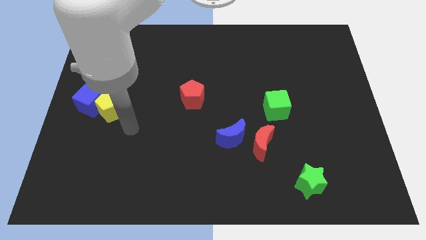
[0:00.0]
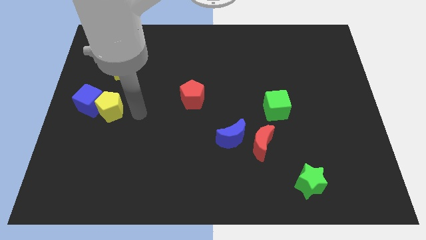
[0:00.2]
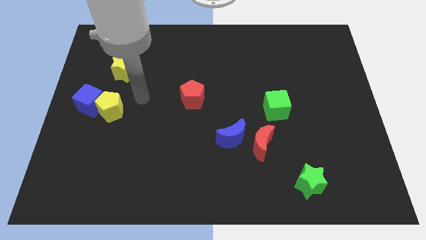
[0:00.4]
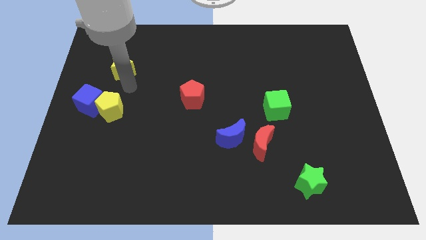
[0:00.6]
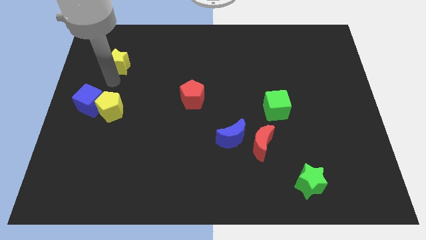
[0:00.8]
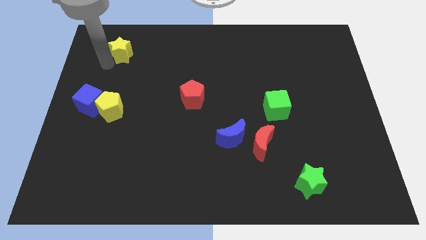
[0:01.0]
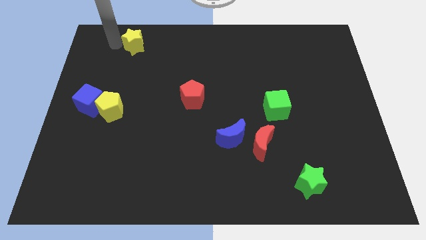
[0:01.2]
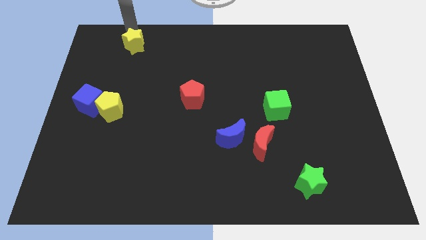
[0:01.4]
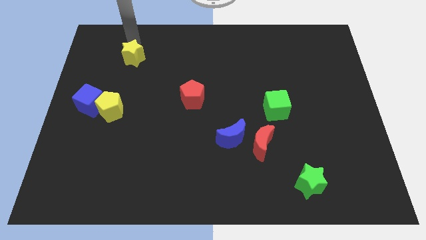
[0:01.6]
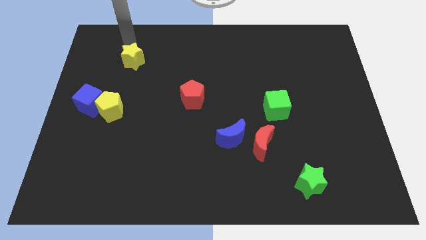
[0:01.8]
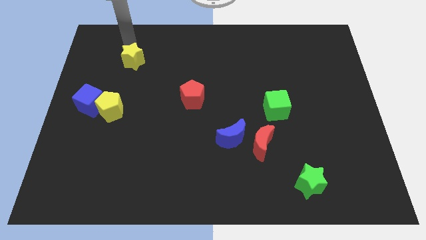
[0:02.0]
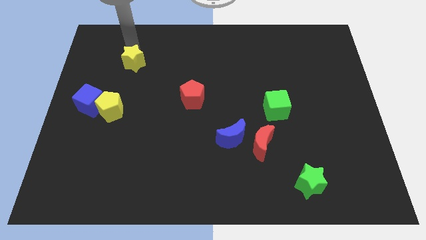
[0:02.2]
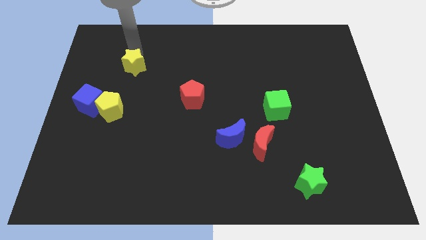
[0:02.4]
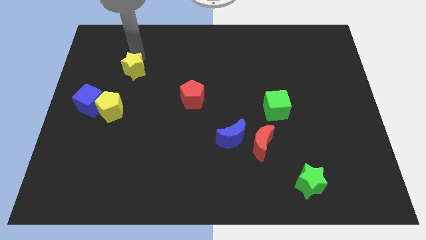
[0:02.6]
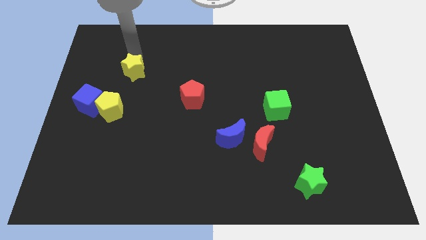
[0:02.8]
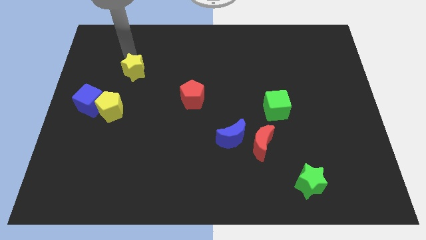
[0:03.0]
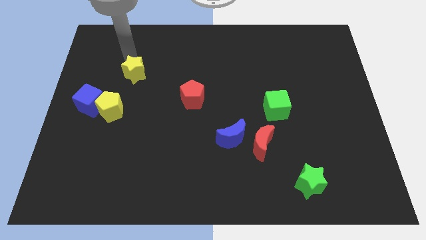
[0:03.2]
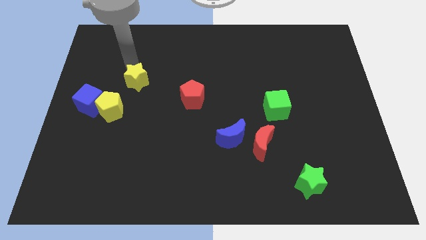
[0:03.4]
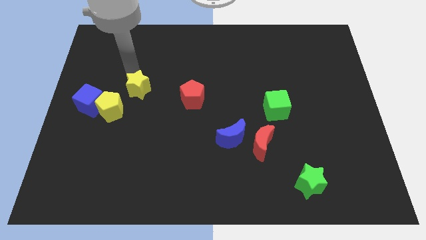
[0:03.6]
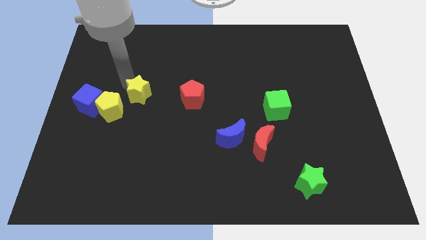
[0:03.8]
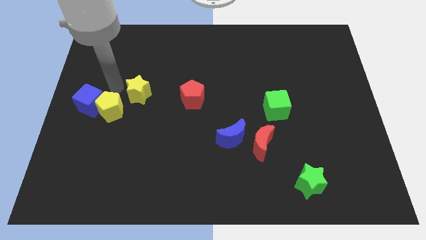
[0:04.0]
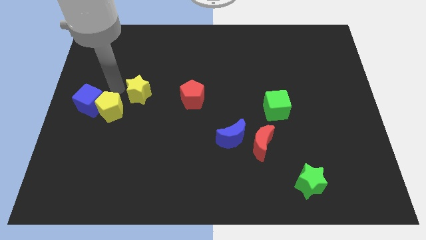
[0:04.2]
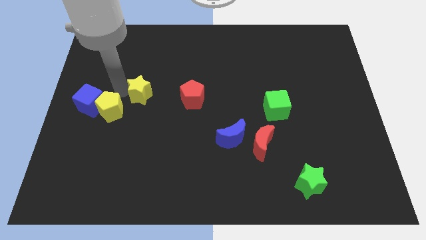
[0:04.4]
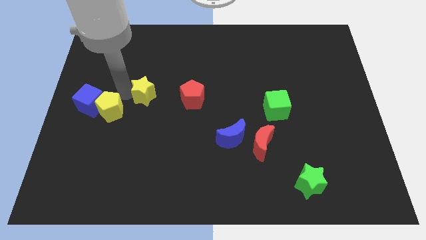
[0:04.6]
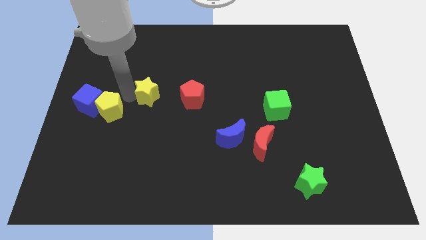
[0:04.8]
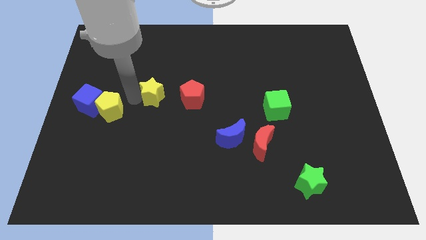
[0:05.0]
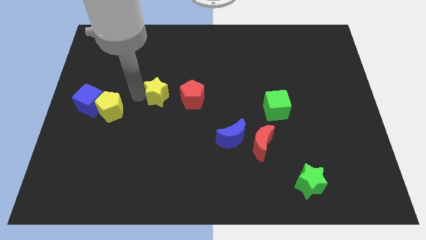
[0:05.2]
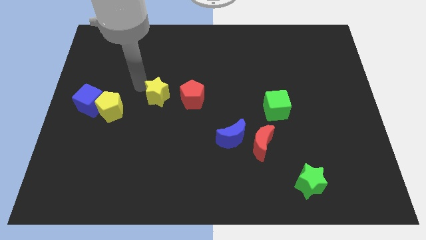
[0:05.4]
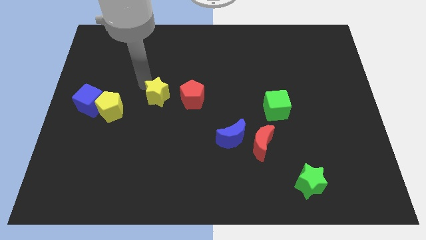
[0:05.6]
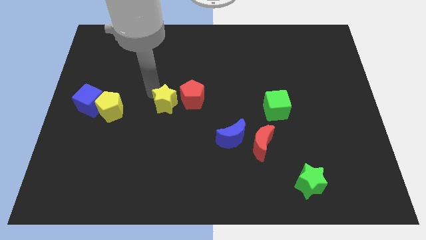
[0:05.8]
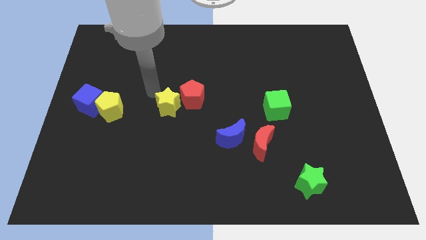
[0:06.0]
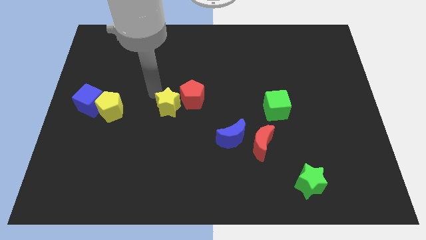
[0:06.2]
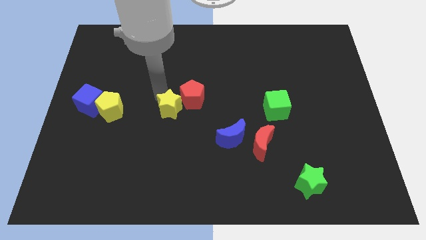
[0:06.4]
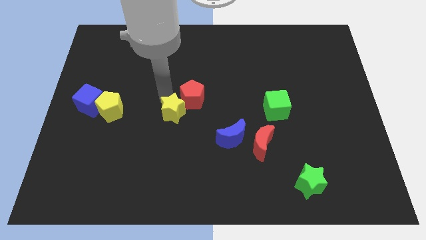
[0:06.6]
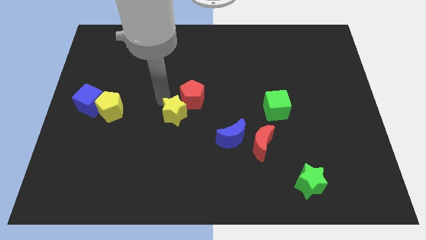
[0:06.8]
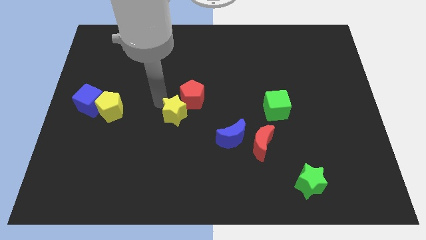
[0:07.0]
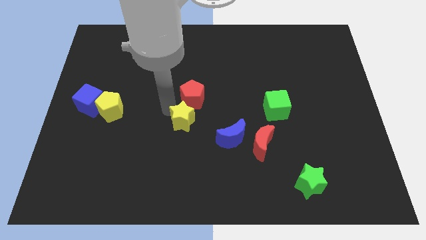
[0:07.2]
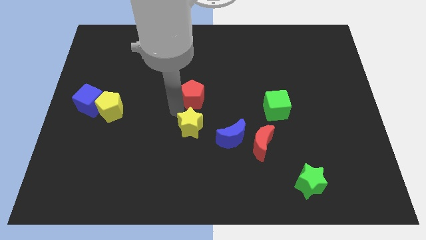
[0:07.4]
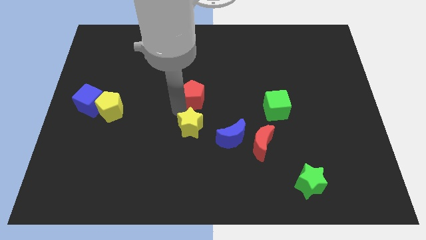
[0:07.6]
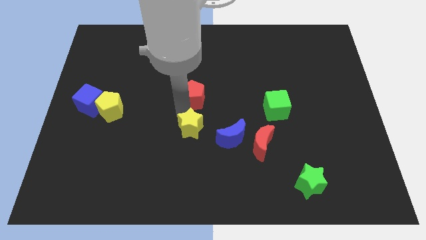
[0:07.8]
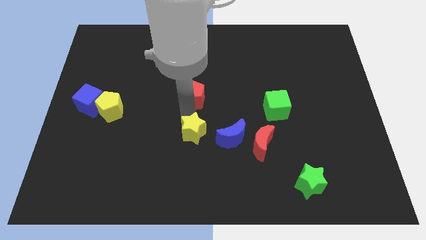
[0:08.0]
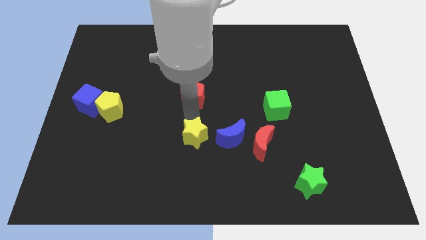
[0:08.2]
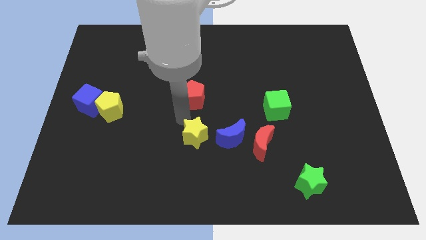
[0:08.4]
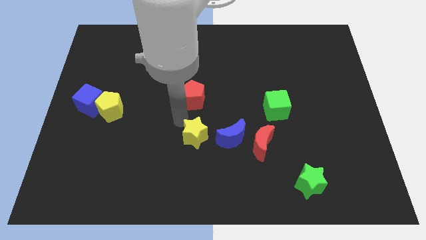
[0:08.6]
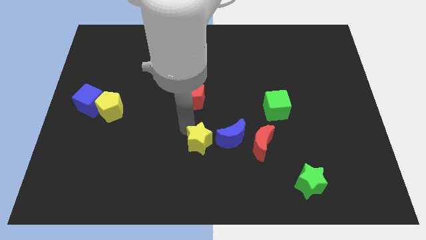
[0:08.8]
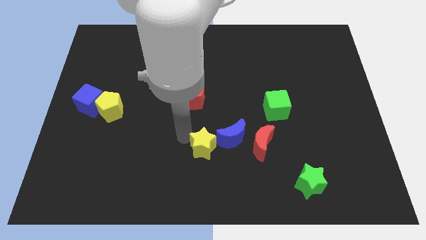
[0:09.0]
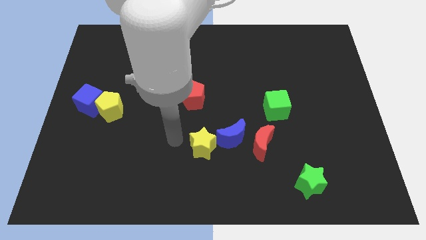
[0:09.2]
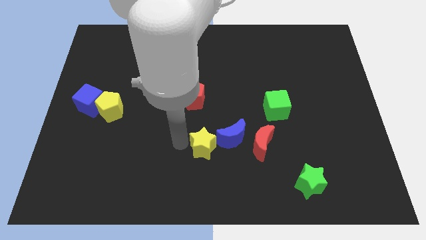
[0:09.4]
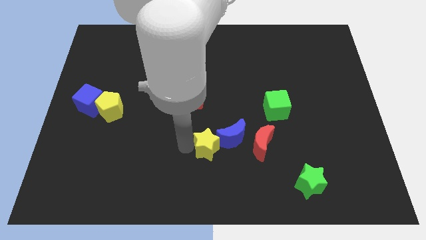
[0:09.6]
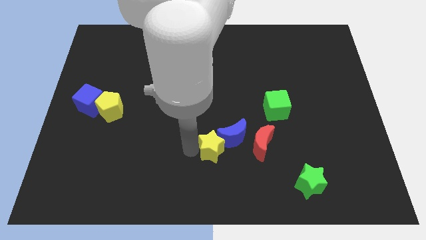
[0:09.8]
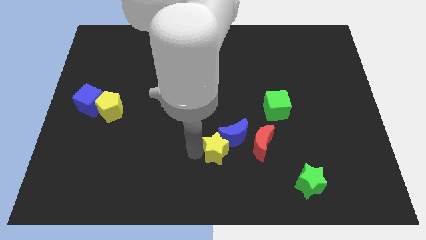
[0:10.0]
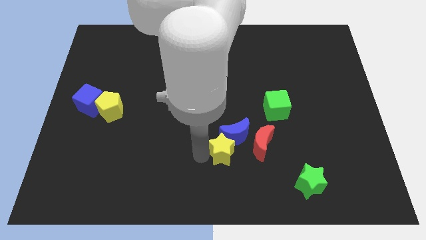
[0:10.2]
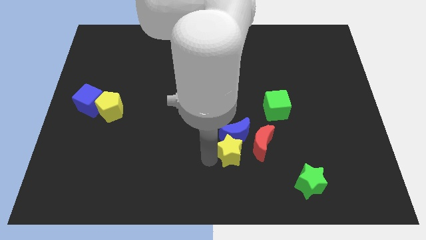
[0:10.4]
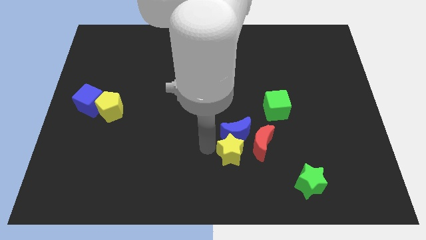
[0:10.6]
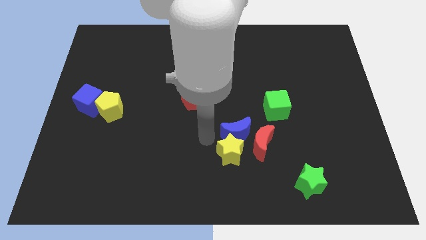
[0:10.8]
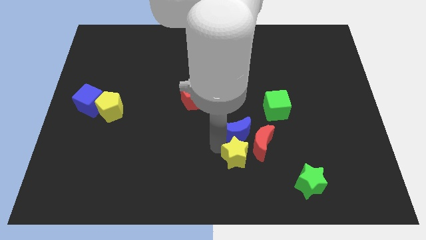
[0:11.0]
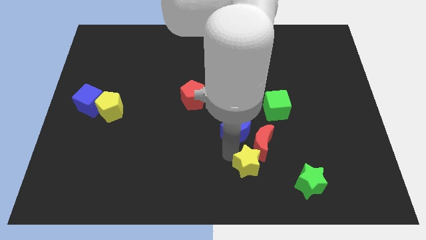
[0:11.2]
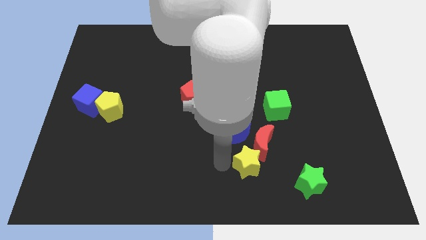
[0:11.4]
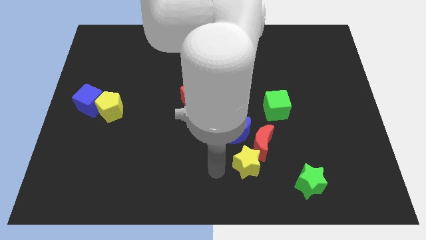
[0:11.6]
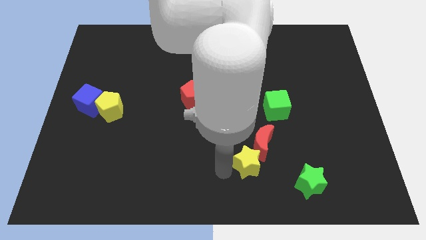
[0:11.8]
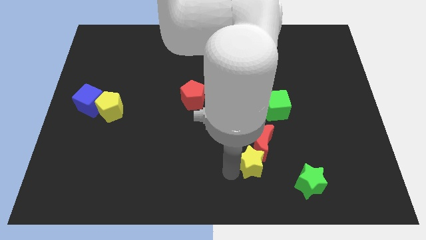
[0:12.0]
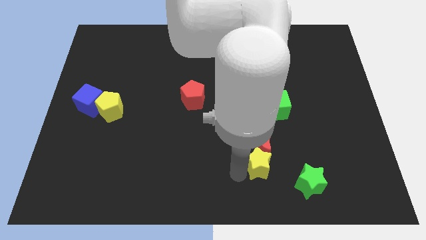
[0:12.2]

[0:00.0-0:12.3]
move the yellow star diagonally up and to the left of the green star
